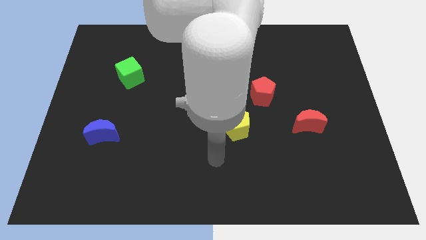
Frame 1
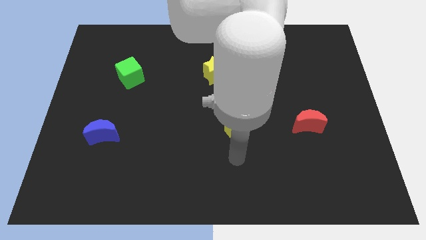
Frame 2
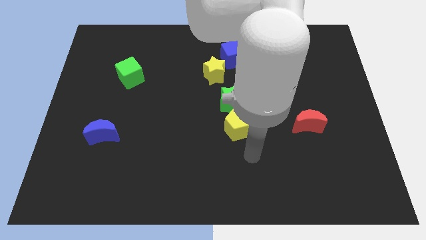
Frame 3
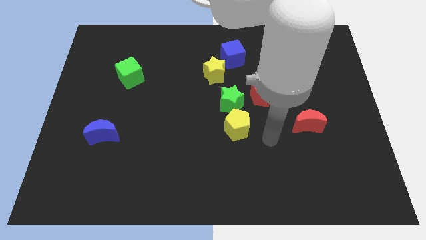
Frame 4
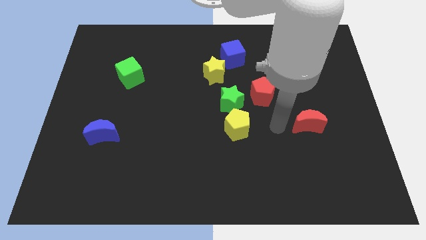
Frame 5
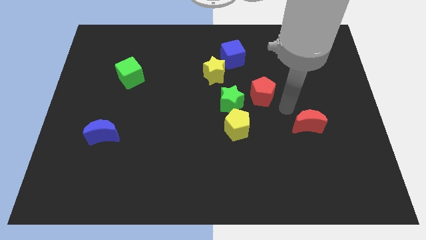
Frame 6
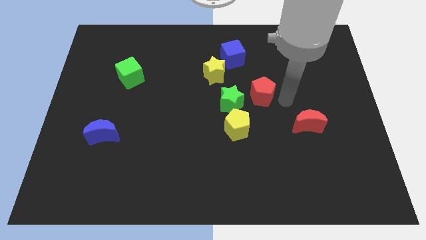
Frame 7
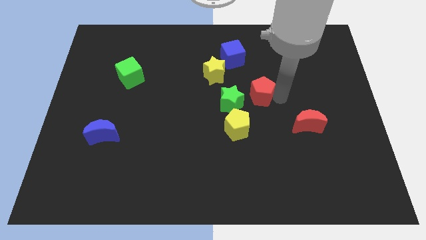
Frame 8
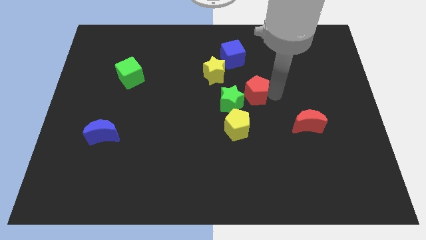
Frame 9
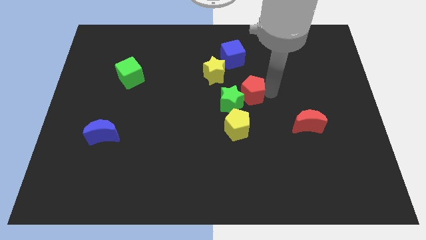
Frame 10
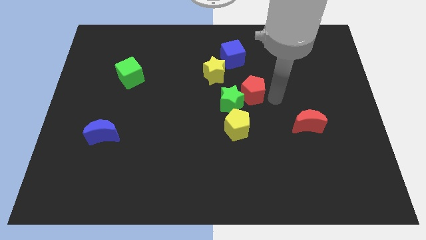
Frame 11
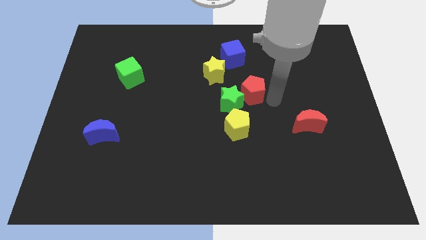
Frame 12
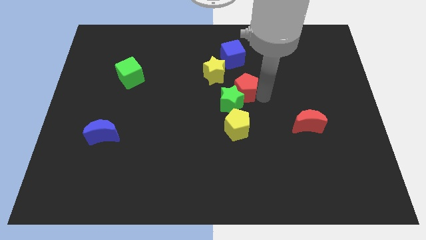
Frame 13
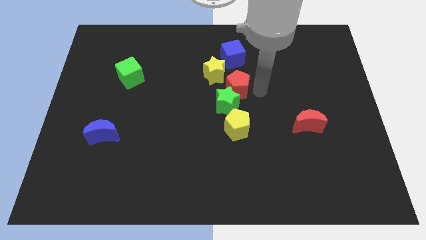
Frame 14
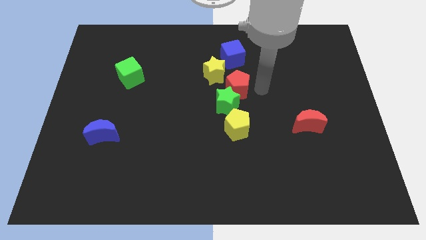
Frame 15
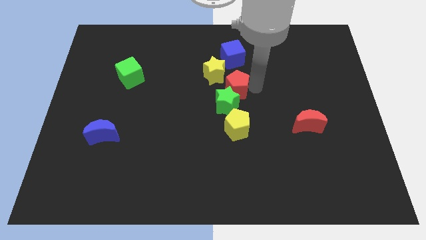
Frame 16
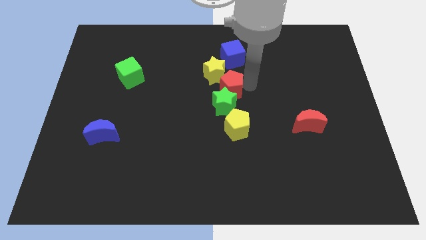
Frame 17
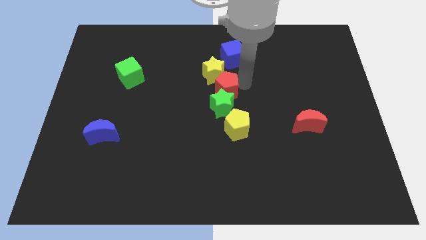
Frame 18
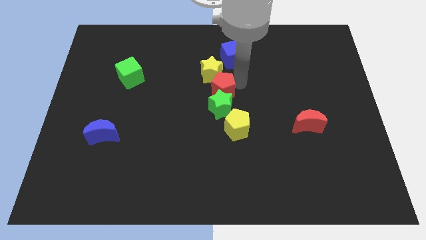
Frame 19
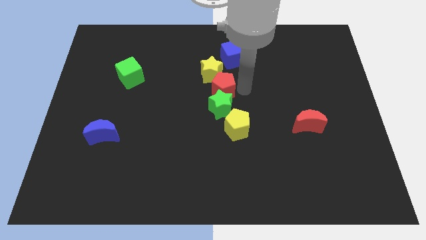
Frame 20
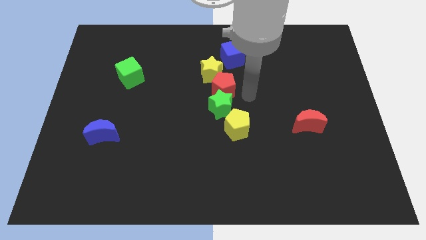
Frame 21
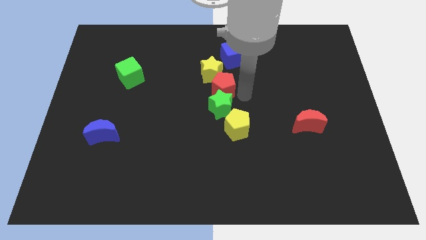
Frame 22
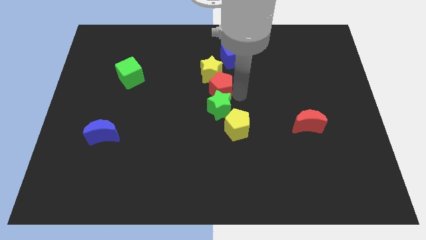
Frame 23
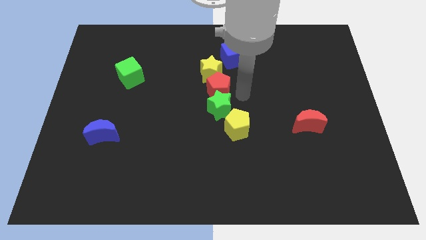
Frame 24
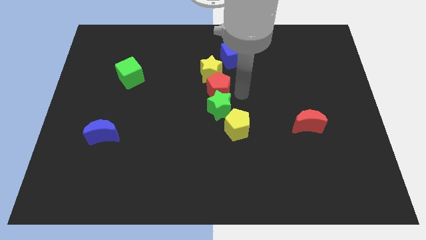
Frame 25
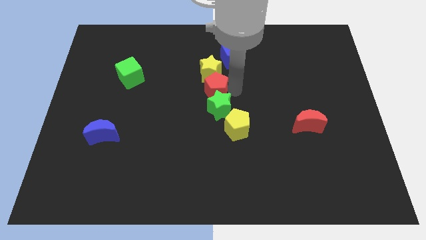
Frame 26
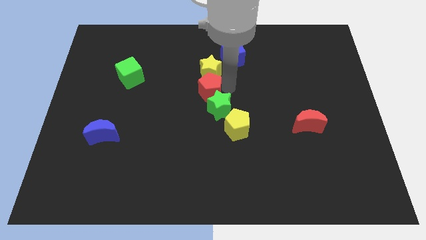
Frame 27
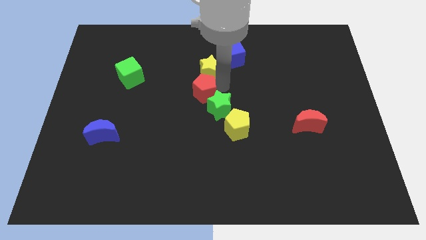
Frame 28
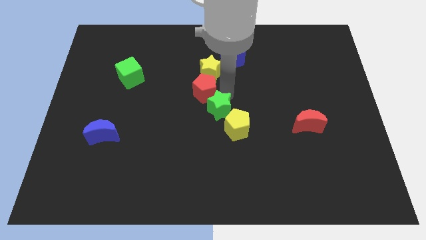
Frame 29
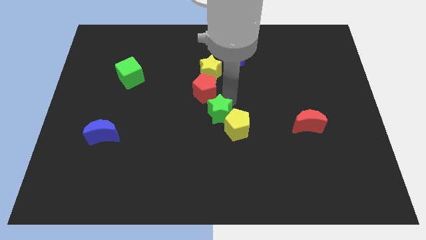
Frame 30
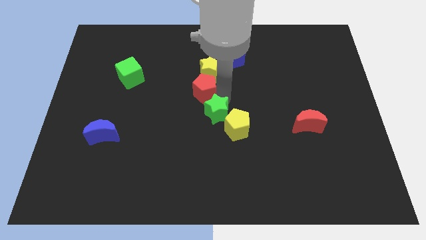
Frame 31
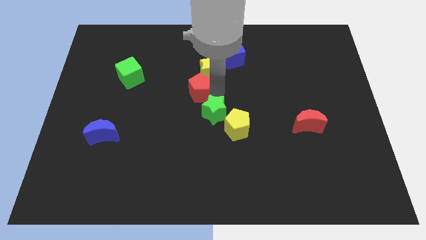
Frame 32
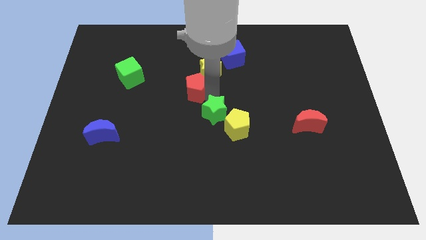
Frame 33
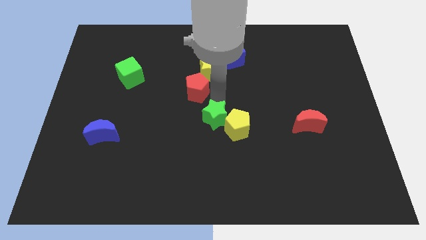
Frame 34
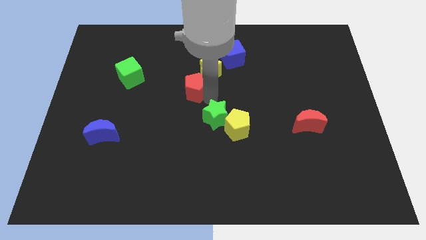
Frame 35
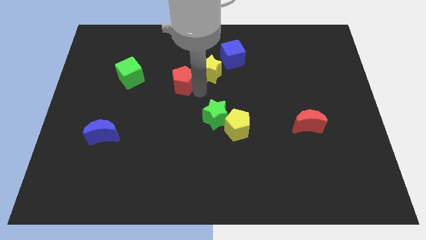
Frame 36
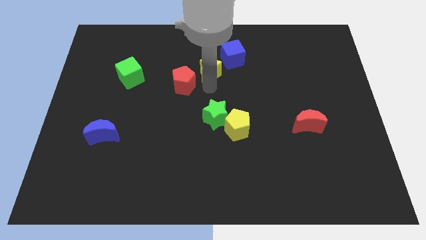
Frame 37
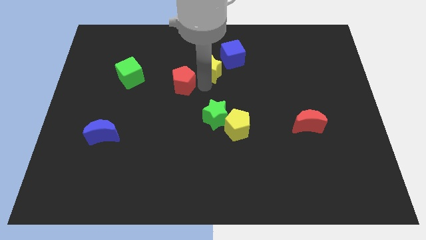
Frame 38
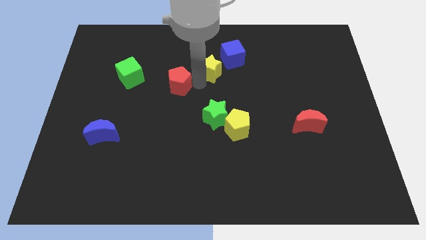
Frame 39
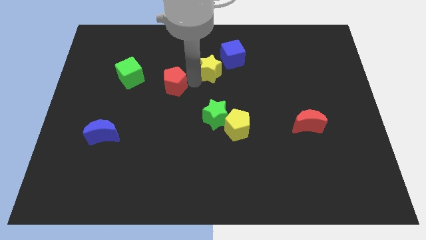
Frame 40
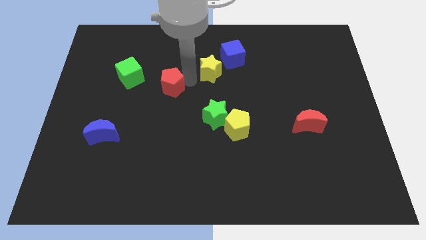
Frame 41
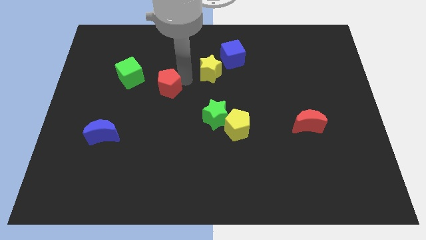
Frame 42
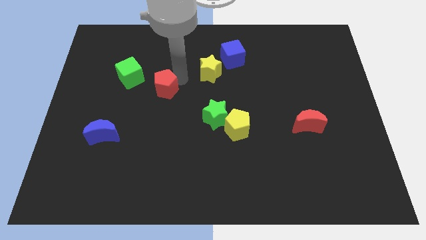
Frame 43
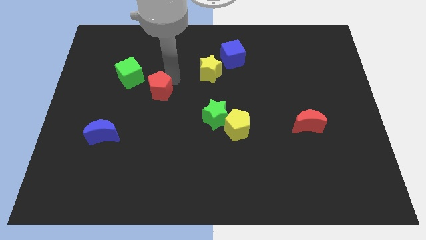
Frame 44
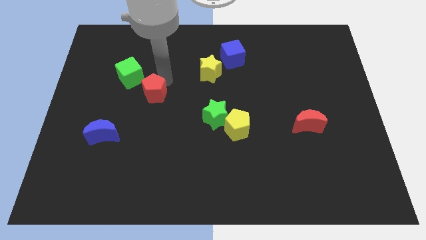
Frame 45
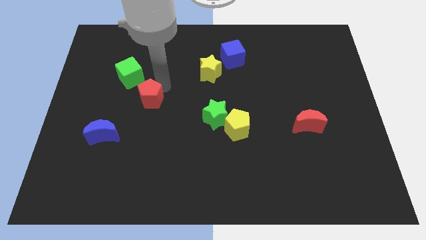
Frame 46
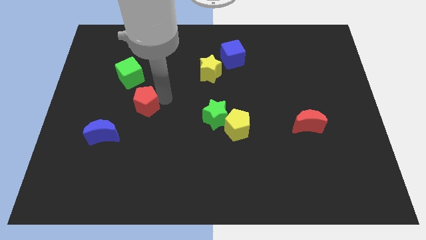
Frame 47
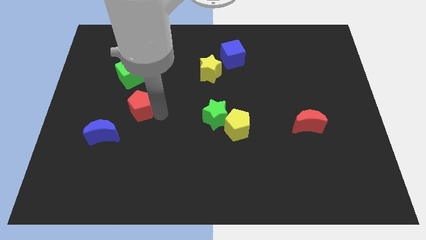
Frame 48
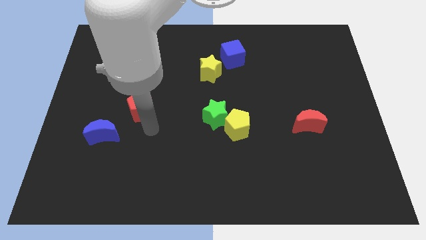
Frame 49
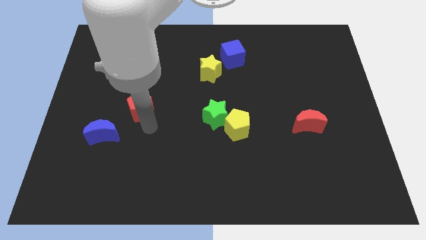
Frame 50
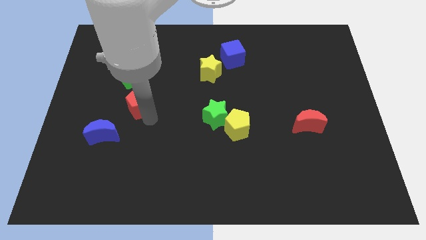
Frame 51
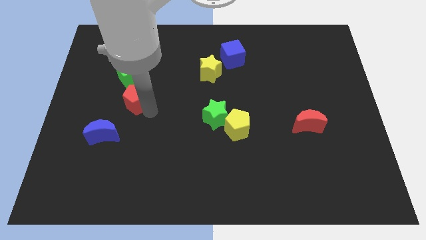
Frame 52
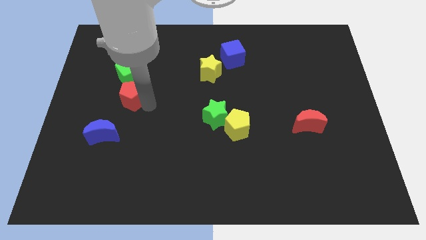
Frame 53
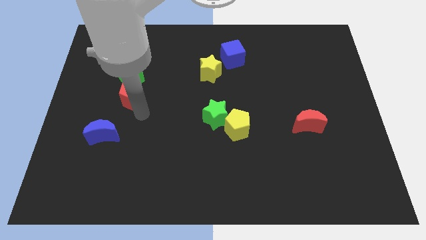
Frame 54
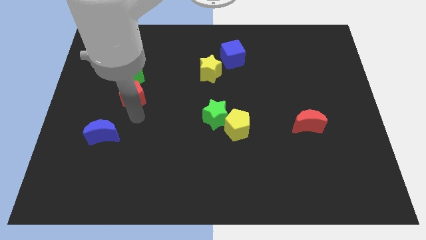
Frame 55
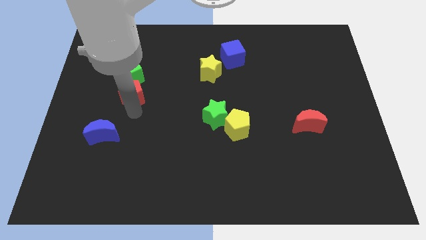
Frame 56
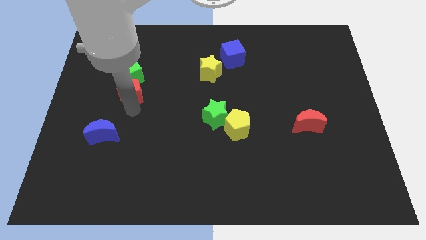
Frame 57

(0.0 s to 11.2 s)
put the red pentagon close to the green cube

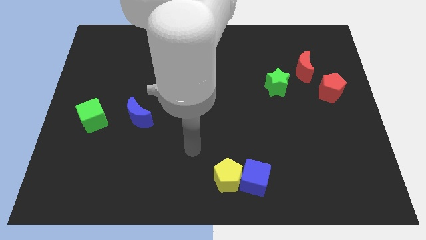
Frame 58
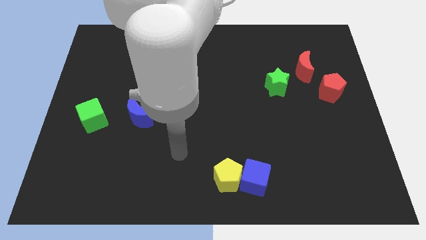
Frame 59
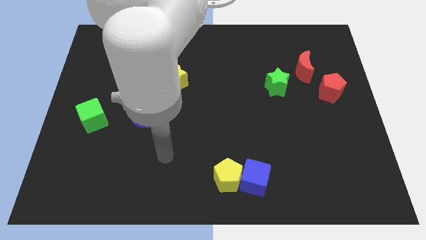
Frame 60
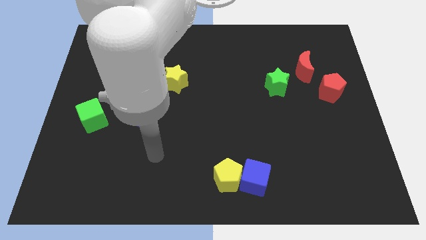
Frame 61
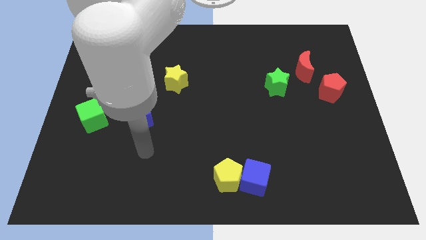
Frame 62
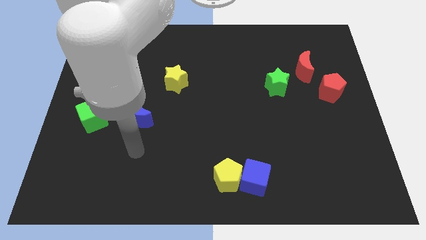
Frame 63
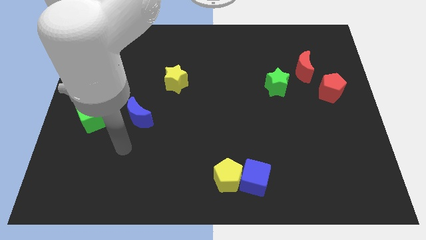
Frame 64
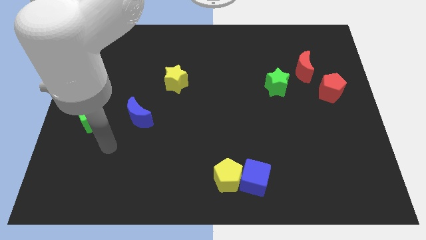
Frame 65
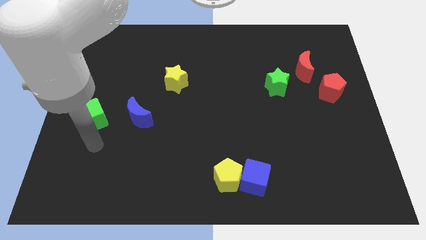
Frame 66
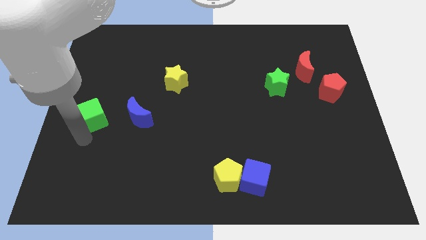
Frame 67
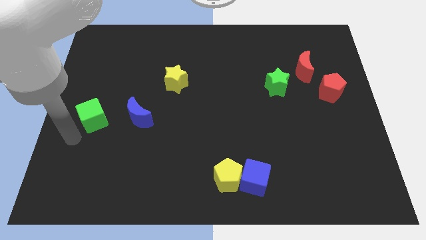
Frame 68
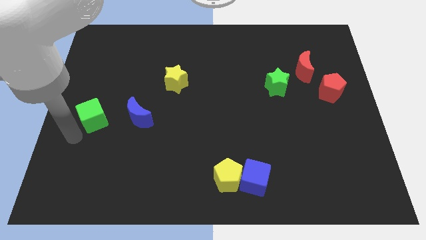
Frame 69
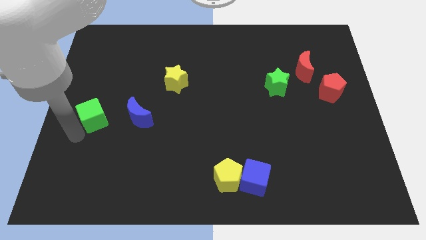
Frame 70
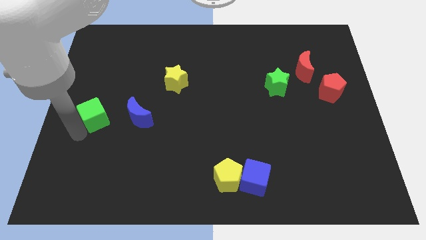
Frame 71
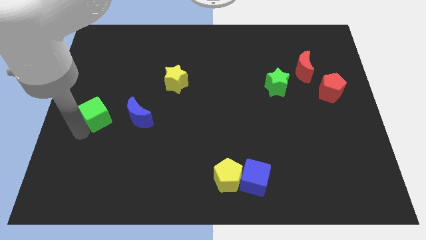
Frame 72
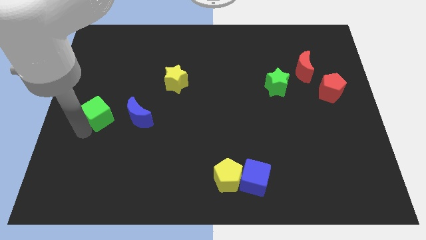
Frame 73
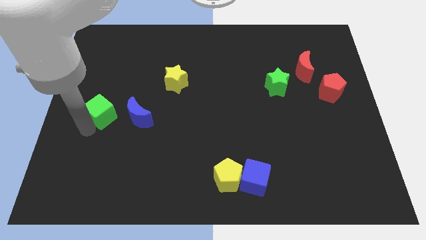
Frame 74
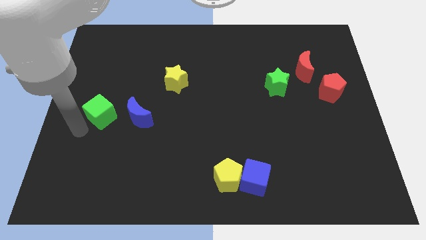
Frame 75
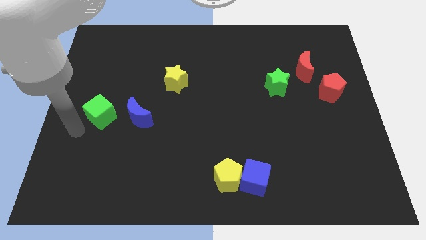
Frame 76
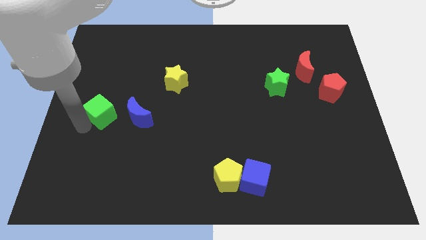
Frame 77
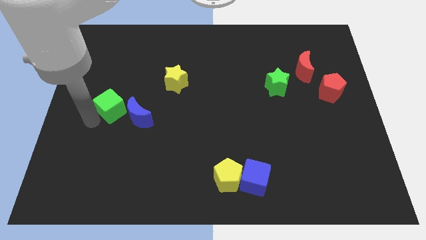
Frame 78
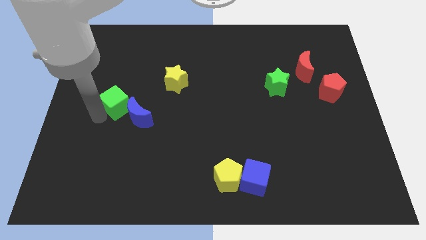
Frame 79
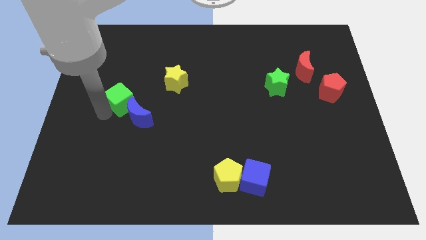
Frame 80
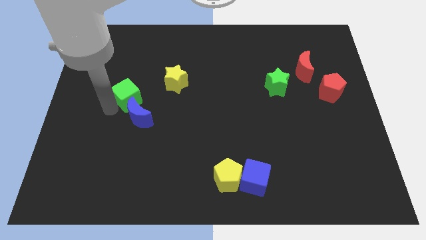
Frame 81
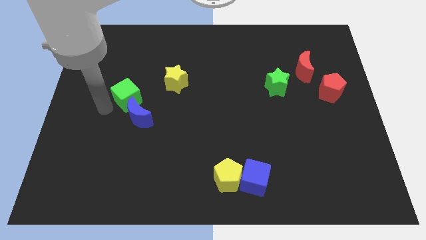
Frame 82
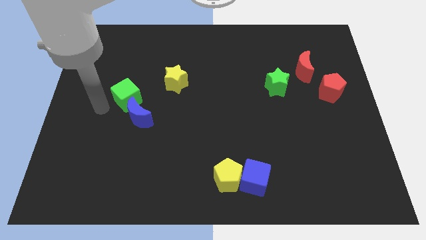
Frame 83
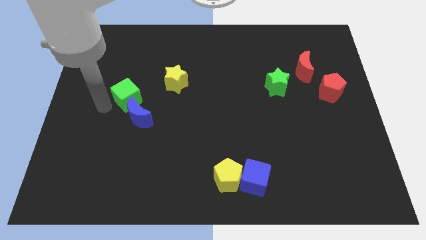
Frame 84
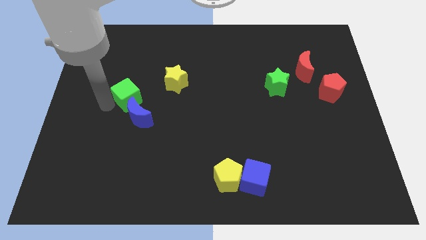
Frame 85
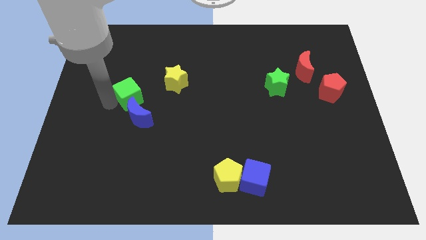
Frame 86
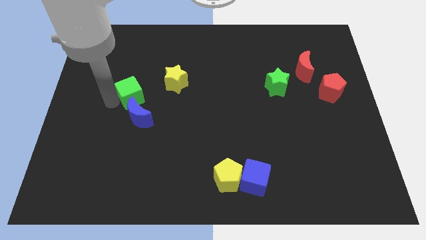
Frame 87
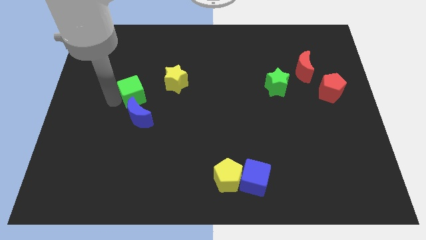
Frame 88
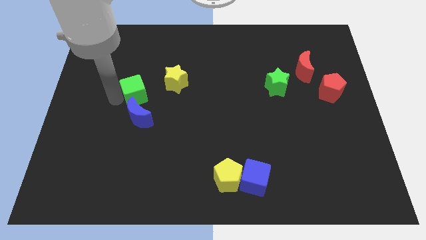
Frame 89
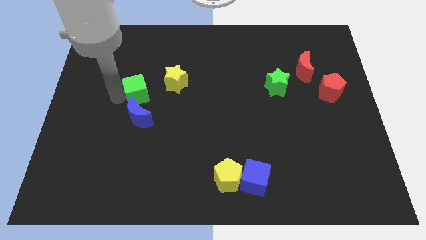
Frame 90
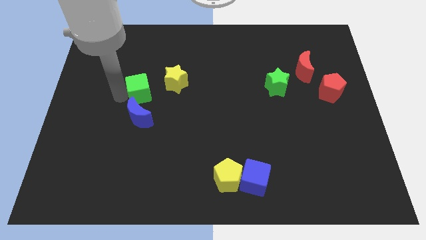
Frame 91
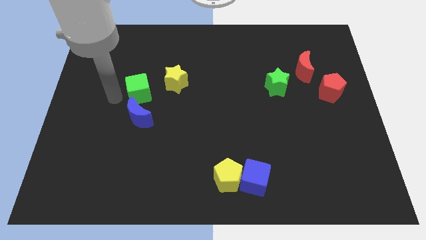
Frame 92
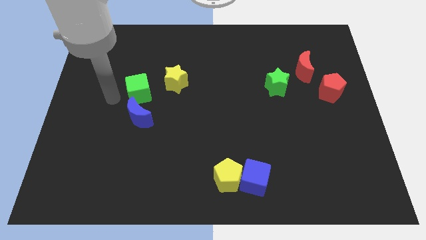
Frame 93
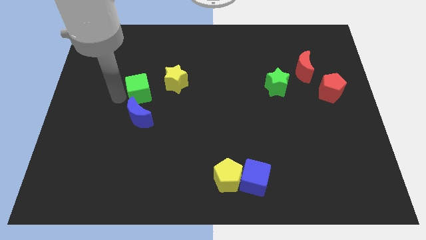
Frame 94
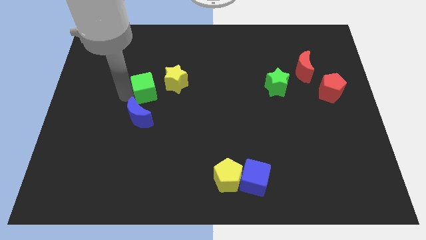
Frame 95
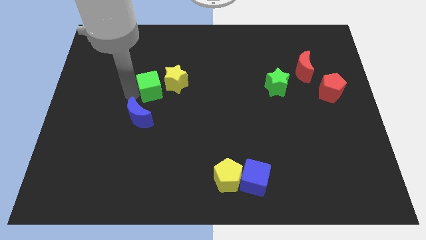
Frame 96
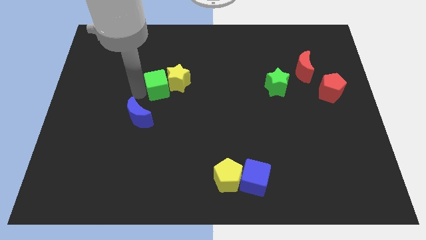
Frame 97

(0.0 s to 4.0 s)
put the green cube close to the yellow star
